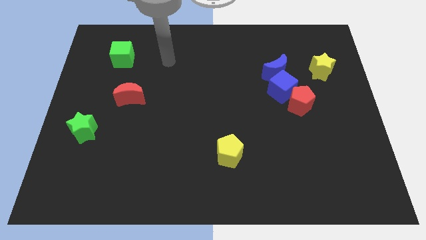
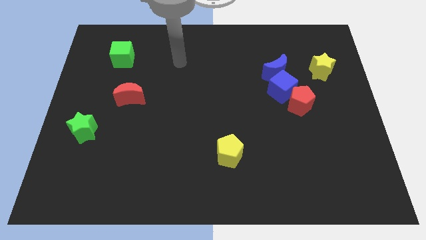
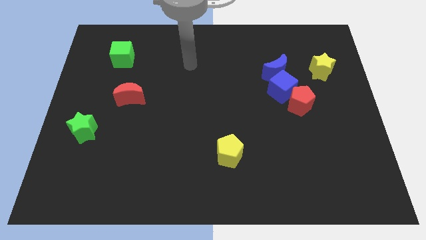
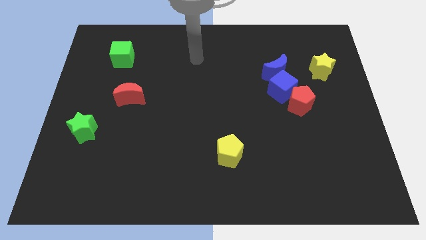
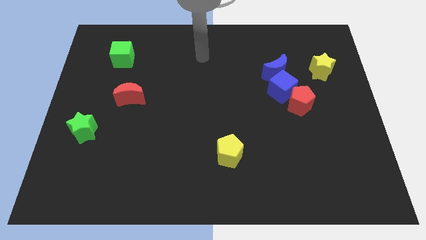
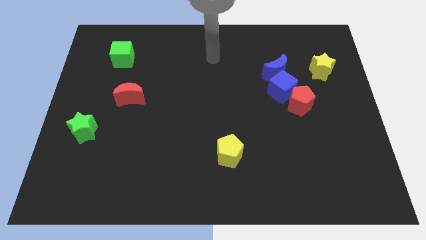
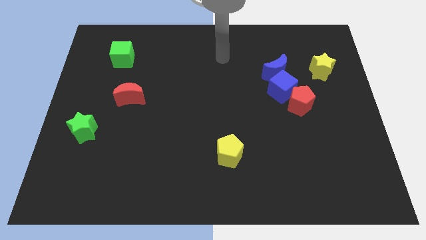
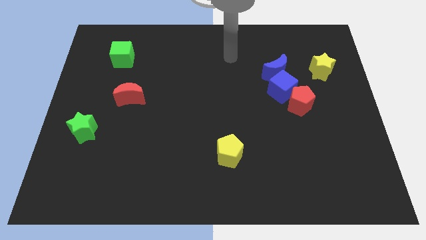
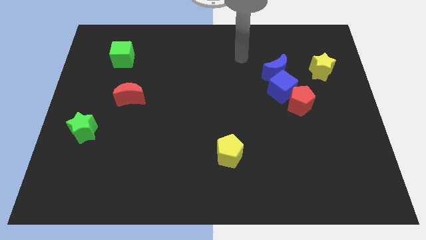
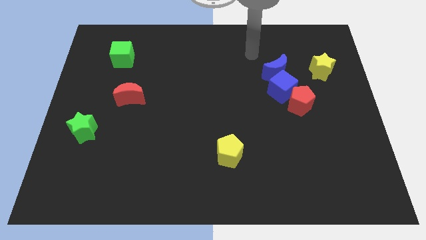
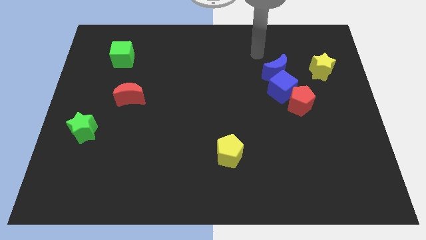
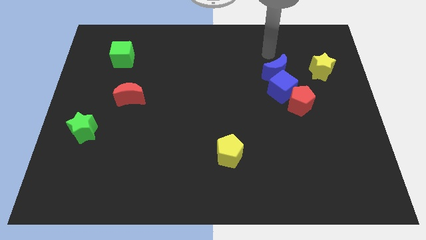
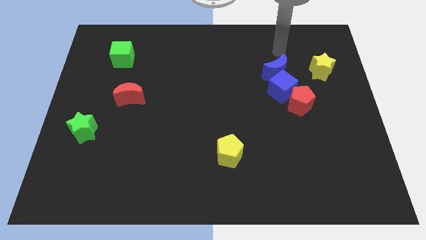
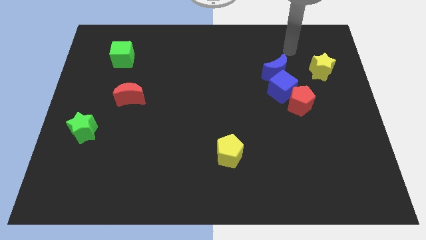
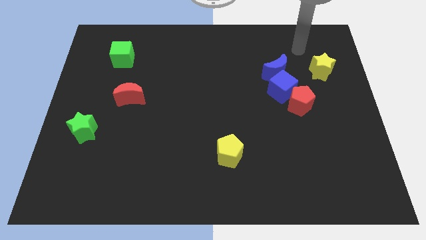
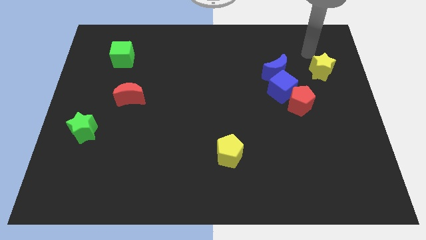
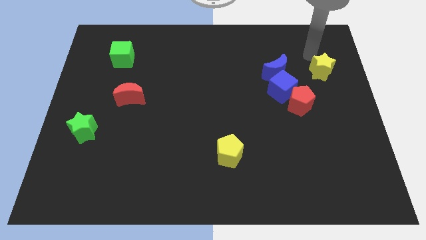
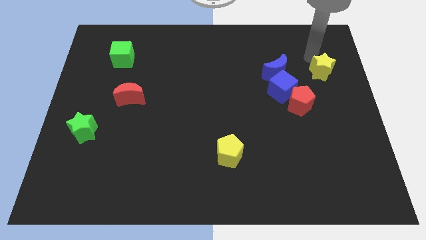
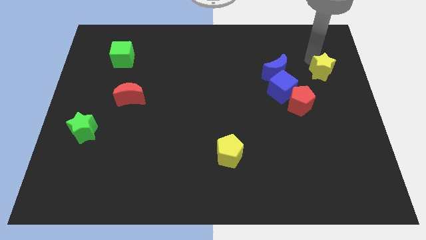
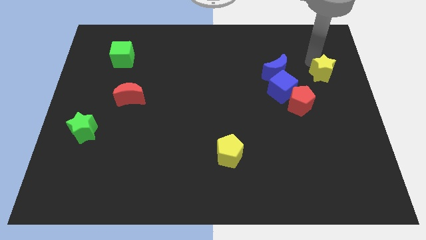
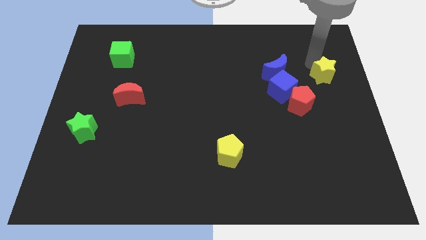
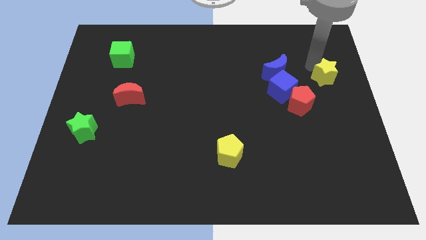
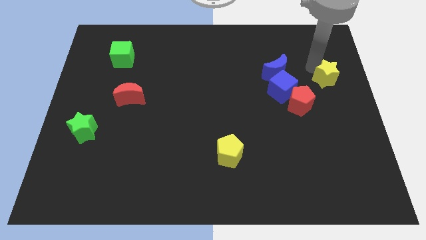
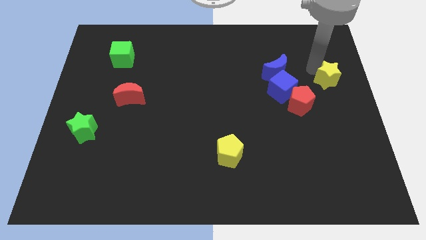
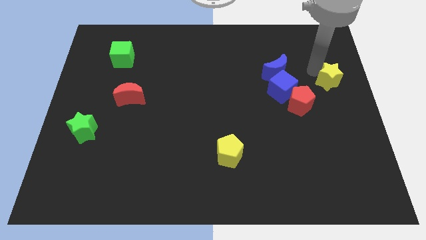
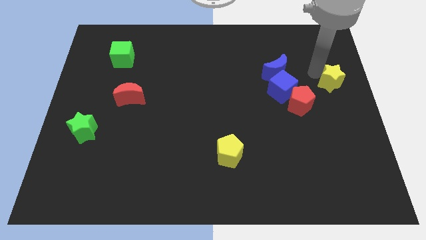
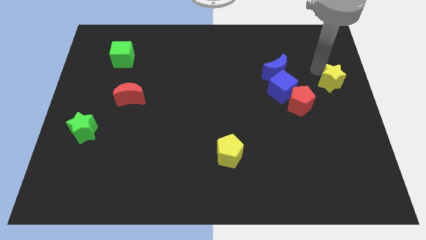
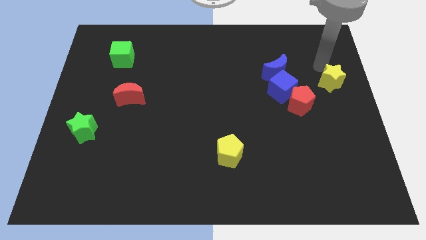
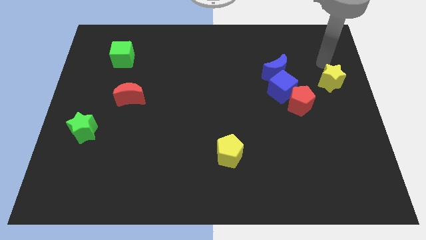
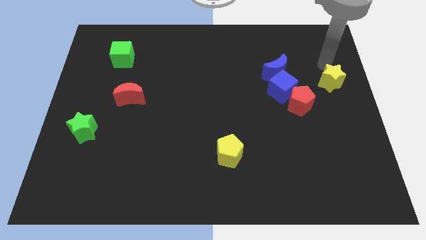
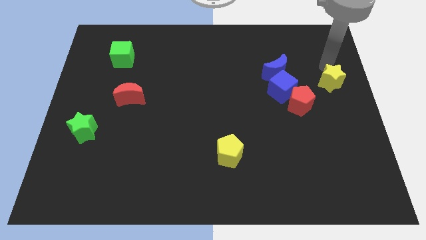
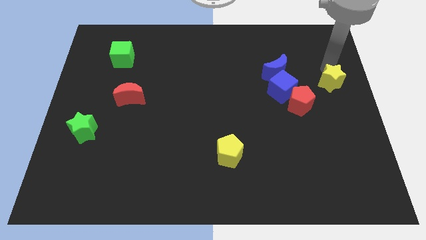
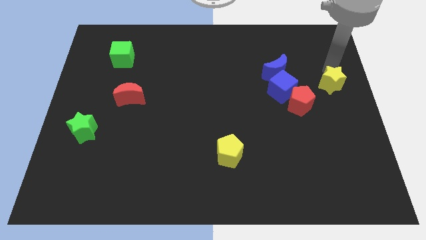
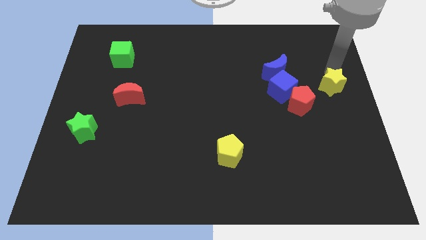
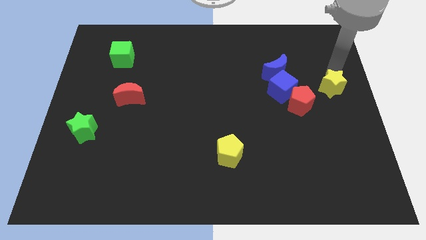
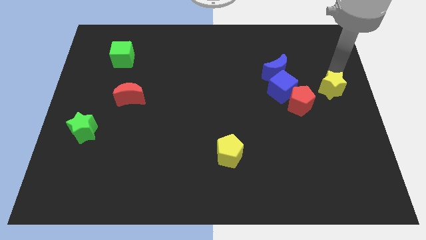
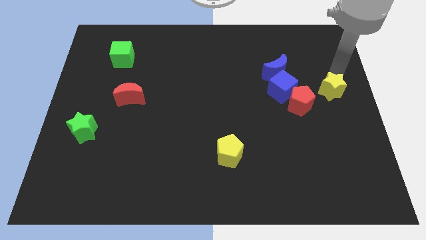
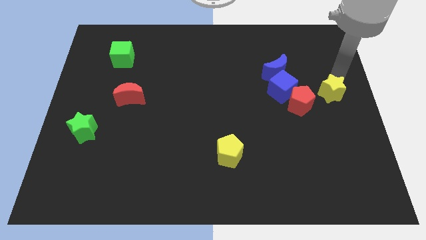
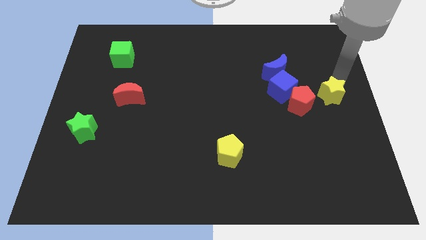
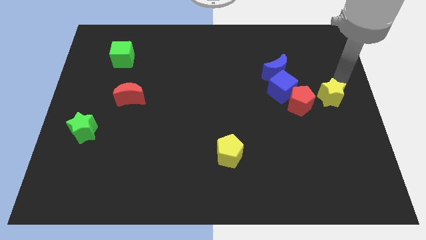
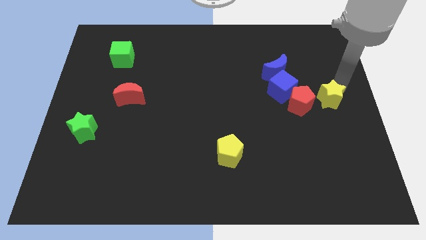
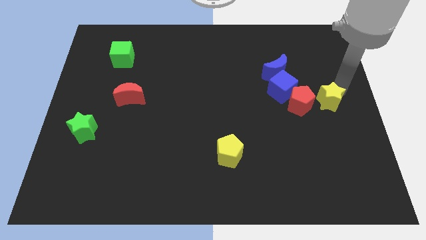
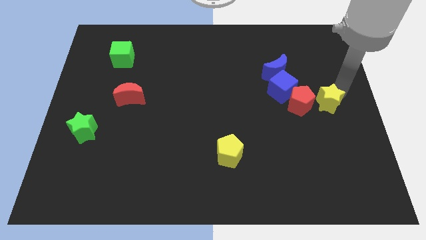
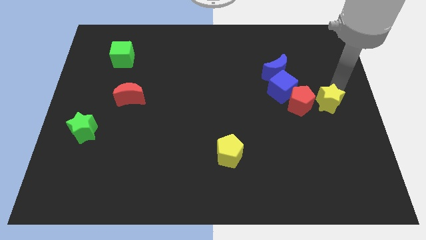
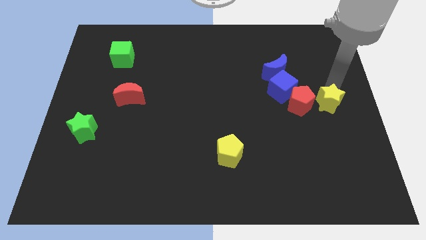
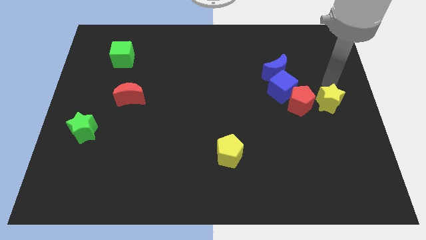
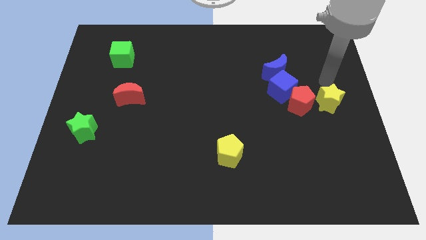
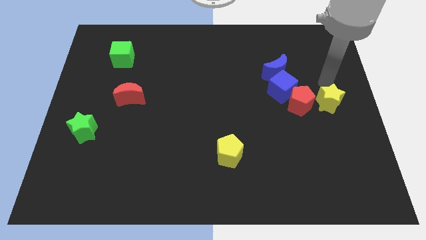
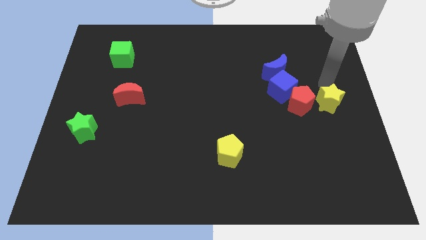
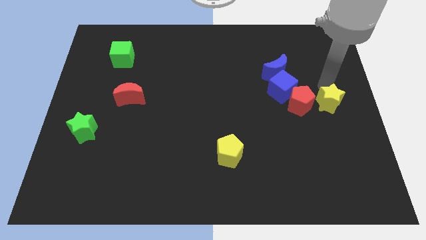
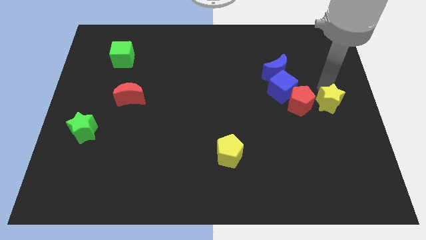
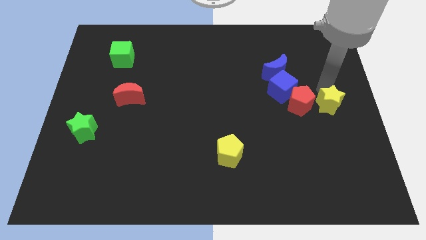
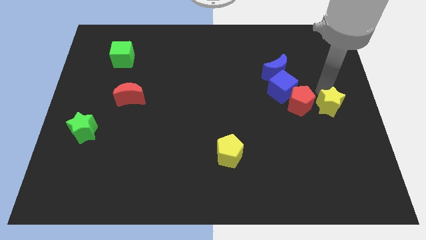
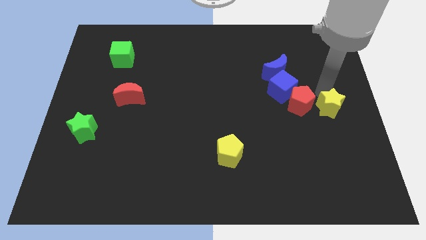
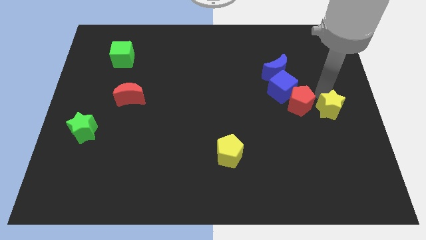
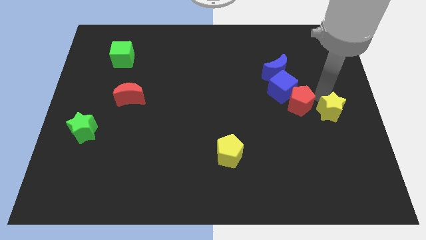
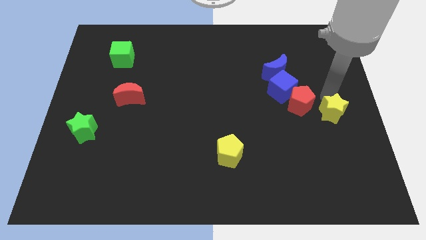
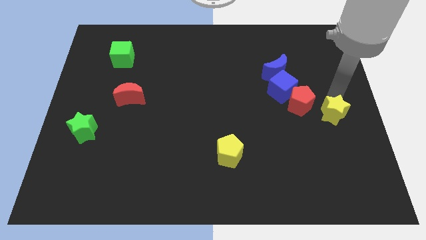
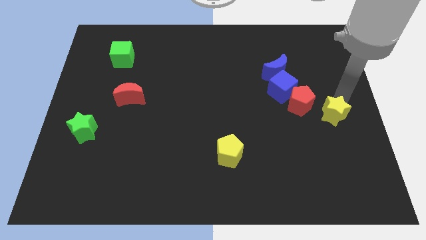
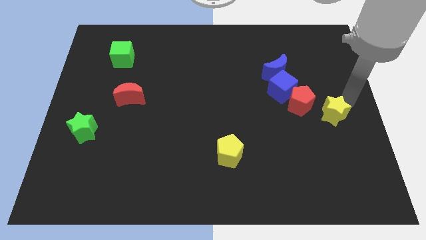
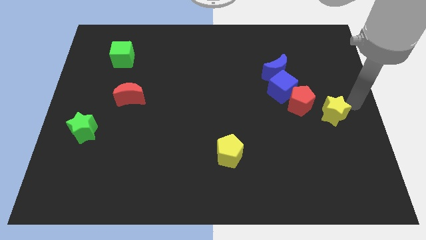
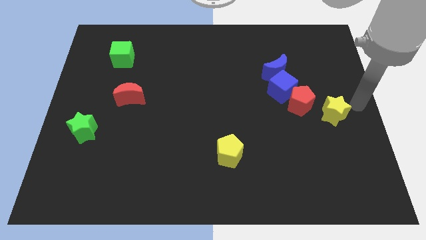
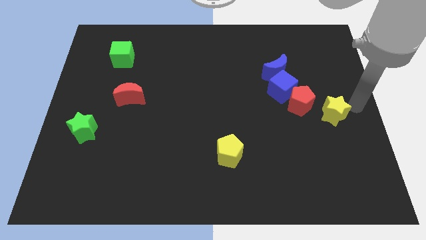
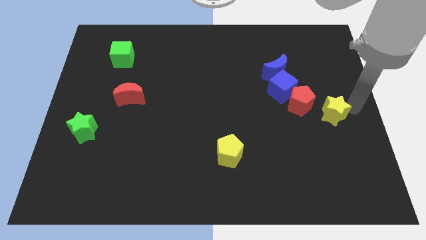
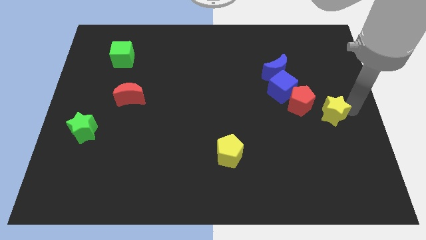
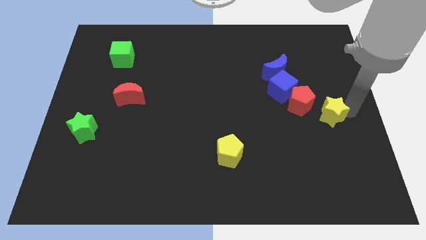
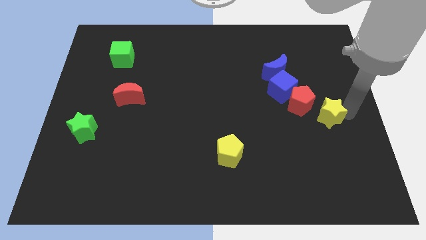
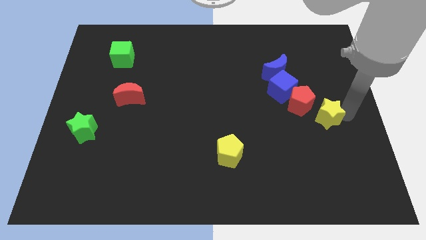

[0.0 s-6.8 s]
move the yellow star slightly diagonally downwards and to the left

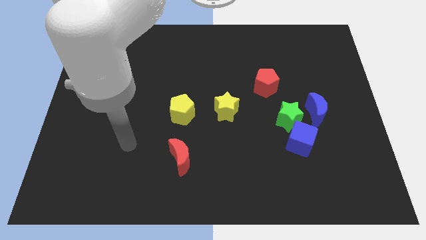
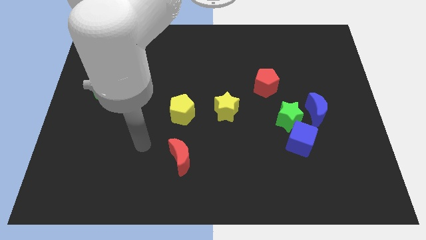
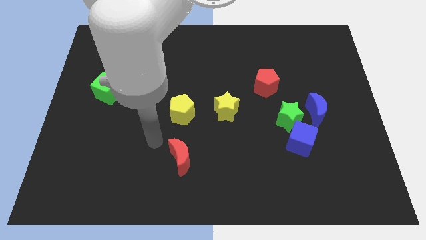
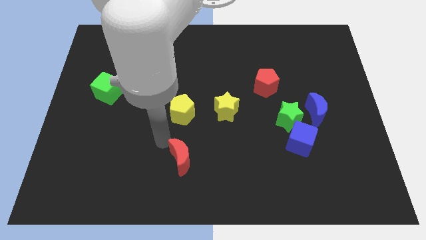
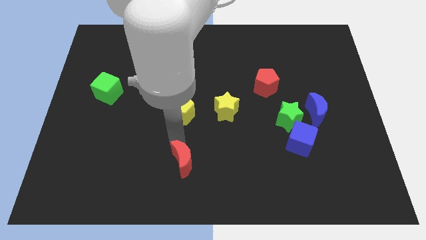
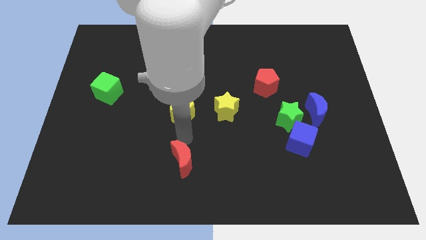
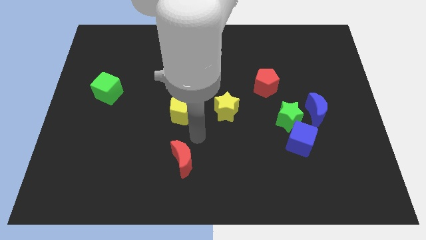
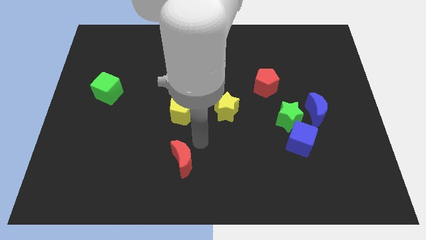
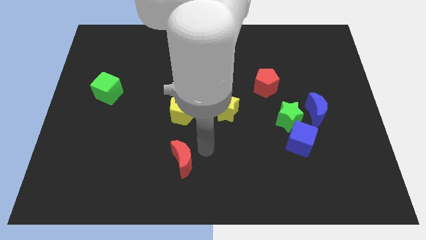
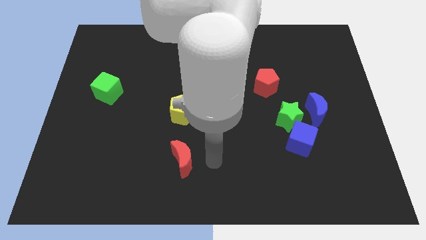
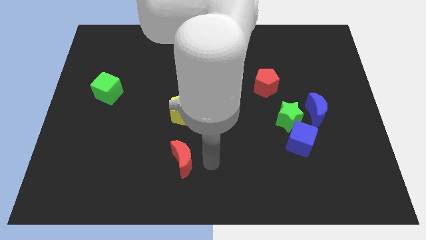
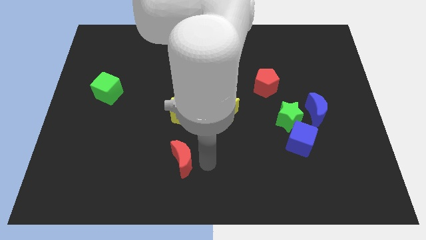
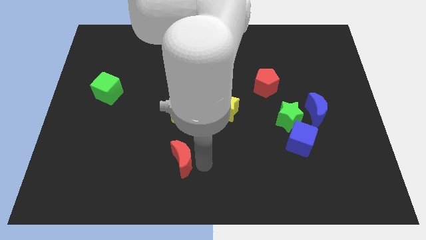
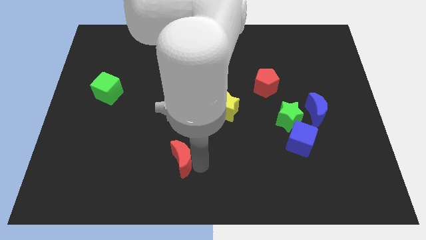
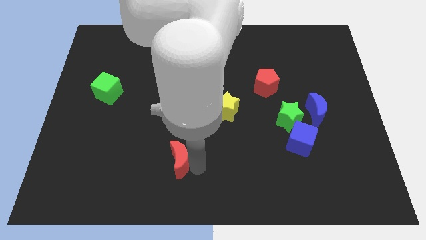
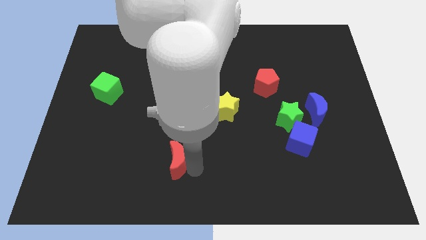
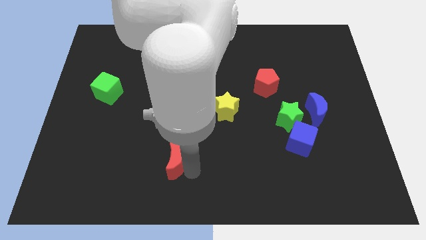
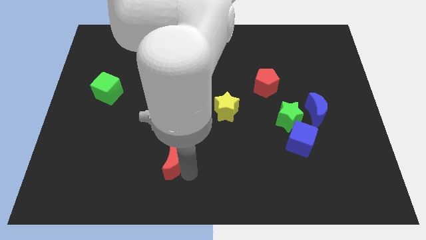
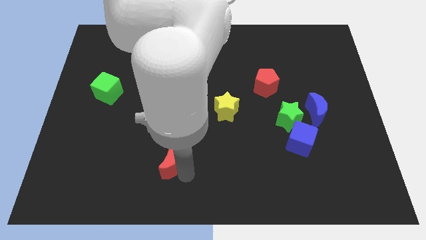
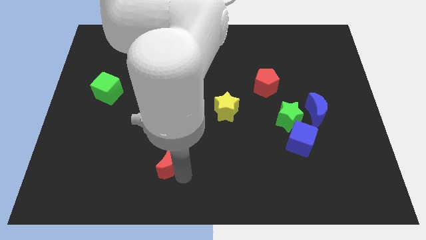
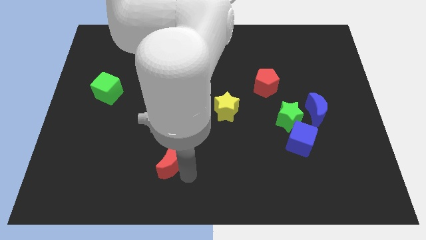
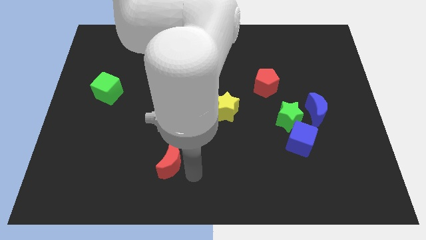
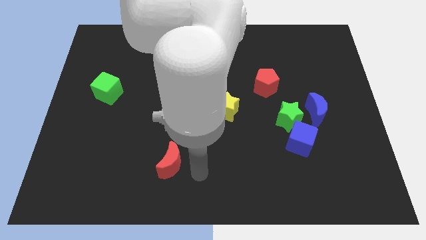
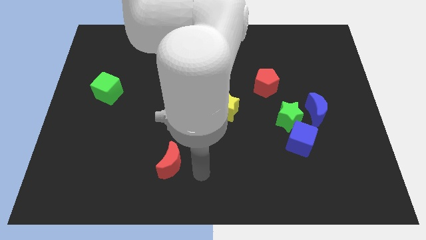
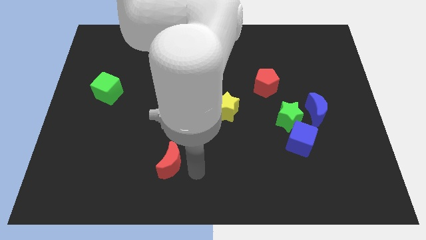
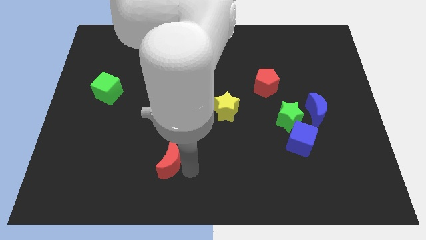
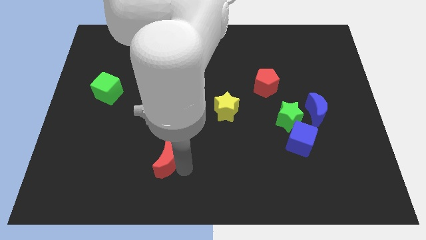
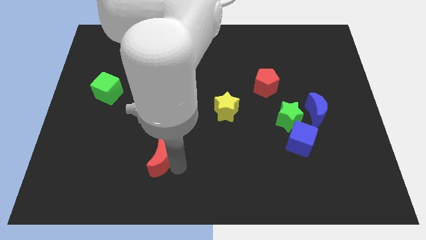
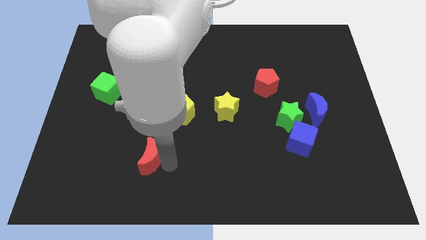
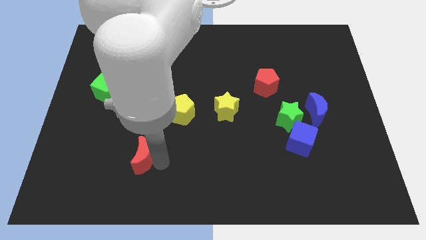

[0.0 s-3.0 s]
slightly push the red moon left
